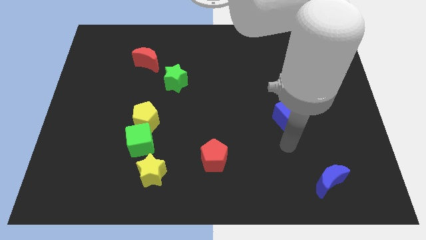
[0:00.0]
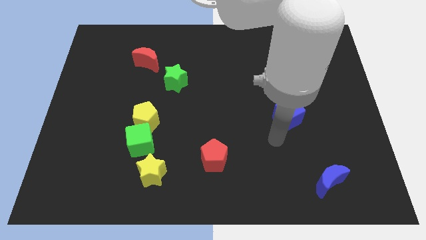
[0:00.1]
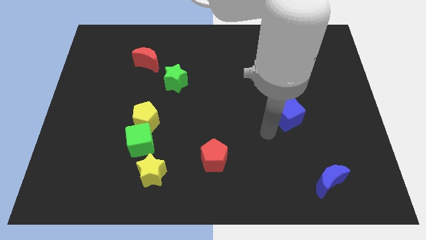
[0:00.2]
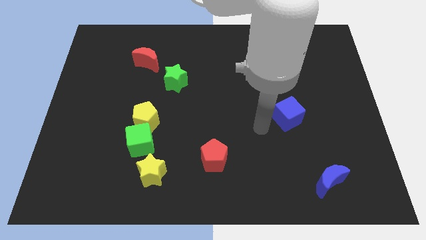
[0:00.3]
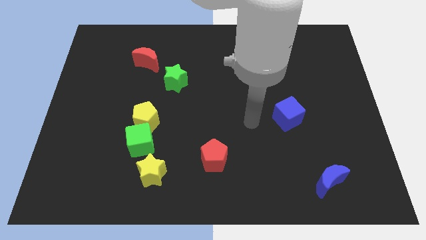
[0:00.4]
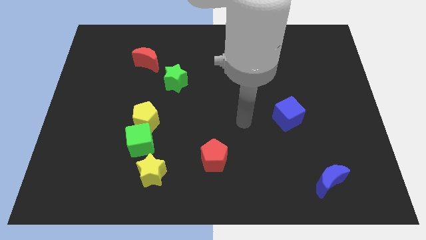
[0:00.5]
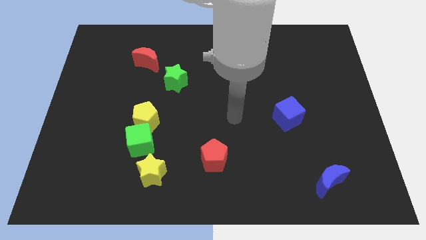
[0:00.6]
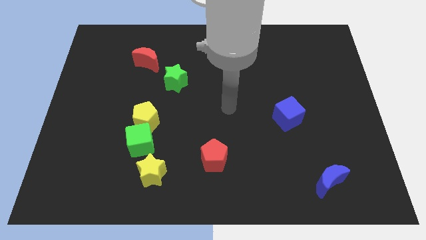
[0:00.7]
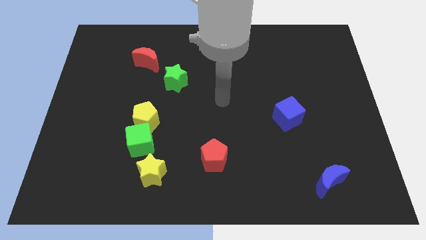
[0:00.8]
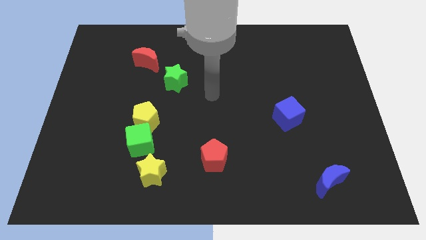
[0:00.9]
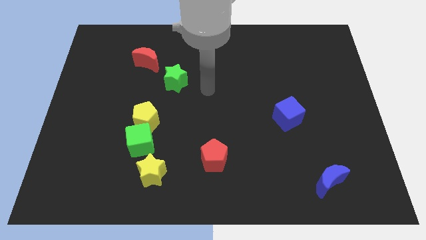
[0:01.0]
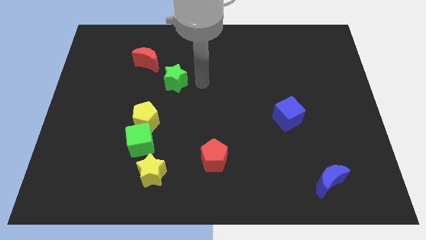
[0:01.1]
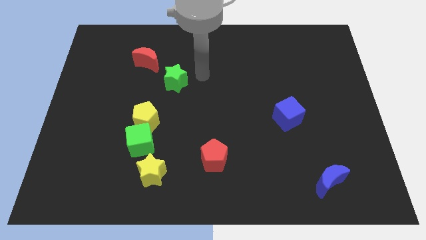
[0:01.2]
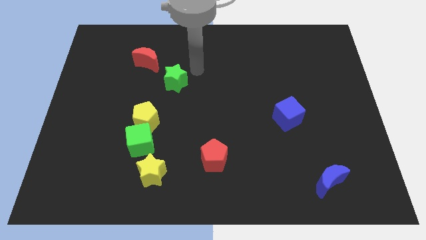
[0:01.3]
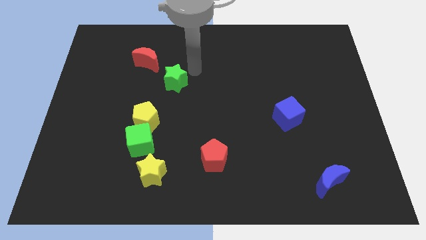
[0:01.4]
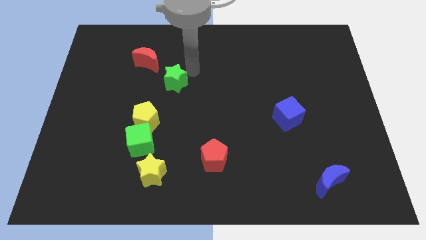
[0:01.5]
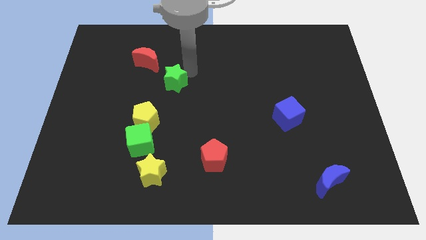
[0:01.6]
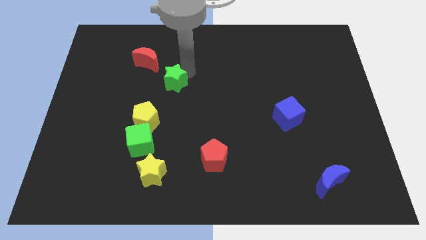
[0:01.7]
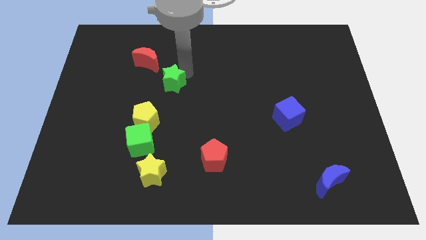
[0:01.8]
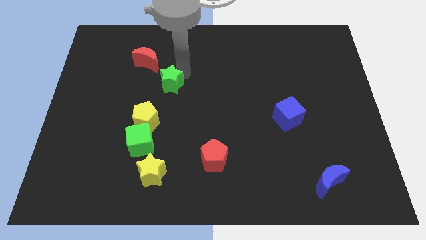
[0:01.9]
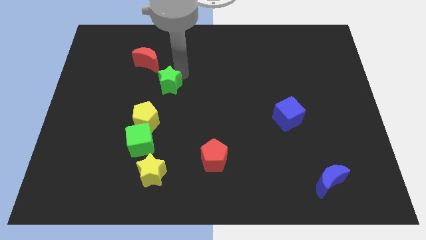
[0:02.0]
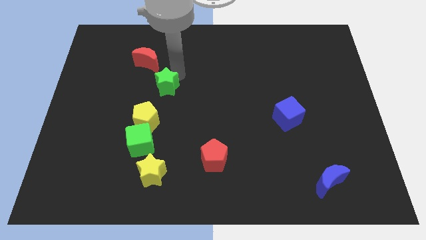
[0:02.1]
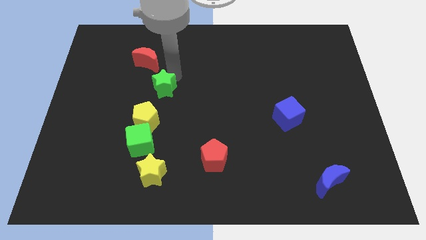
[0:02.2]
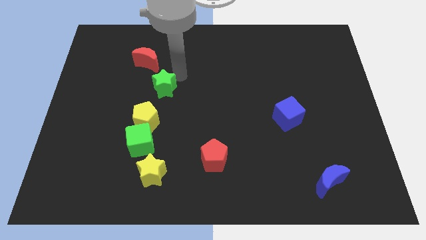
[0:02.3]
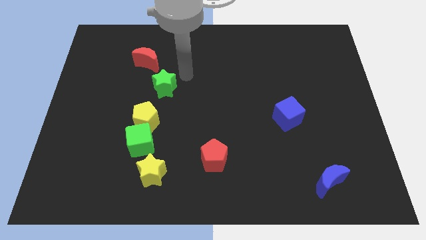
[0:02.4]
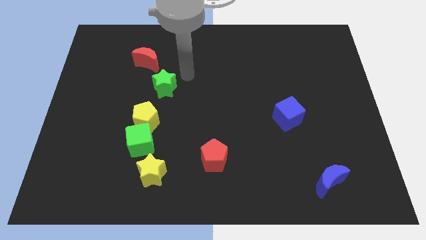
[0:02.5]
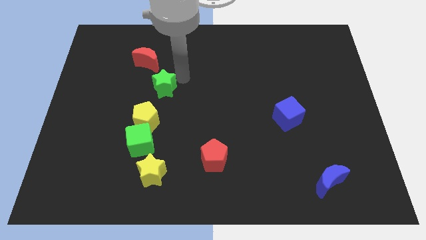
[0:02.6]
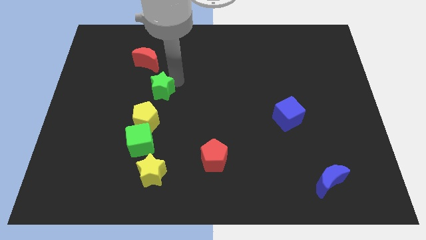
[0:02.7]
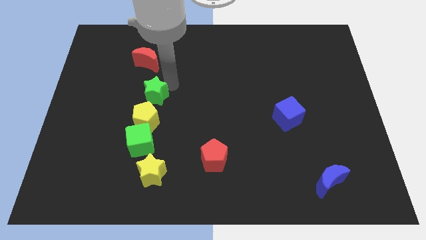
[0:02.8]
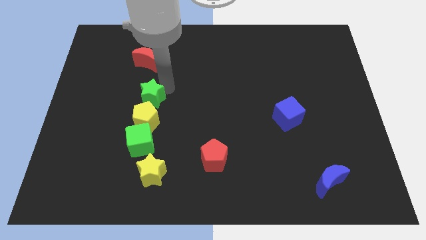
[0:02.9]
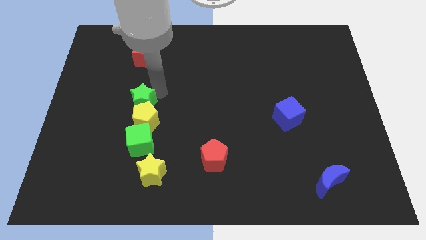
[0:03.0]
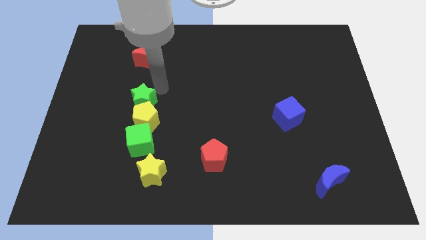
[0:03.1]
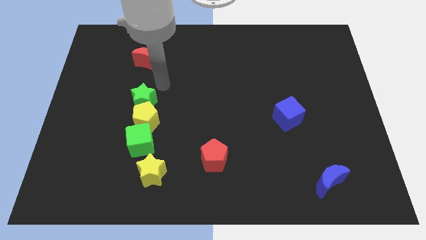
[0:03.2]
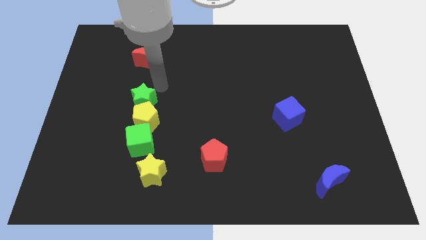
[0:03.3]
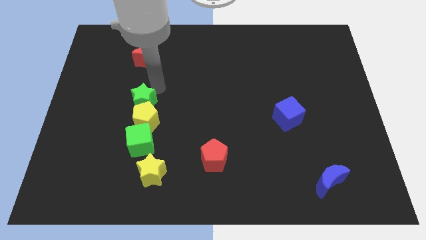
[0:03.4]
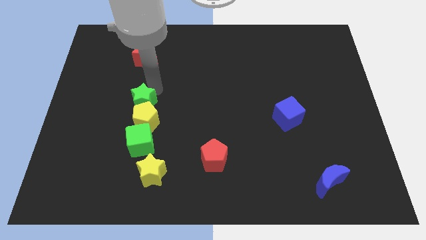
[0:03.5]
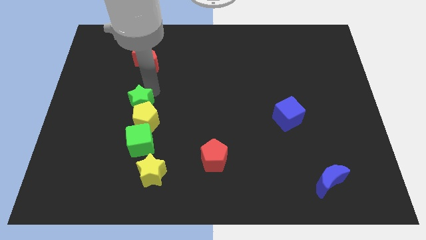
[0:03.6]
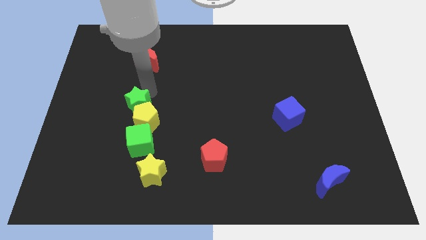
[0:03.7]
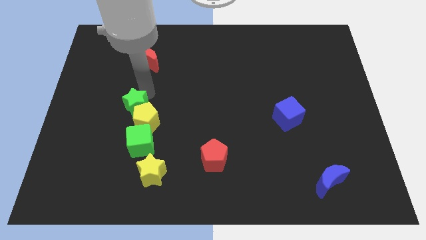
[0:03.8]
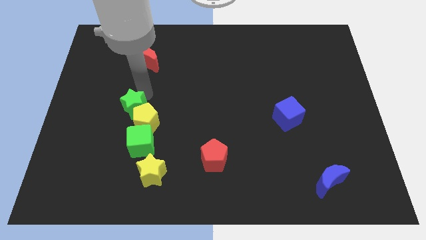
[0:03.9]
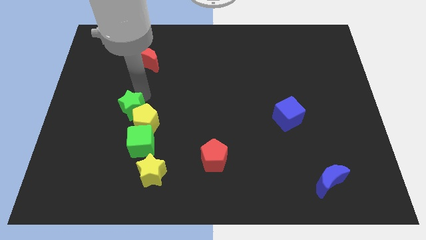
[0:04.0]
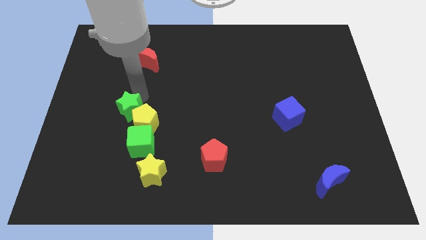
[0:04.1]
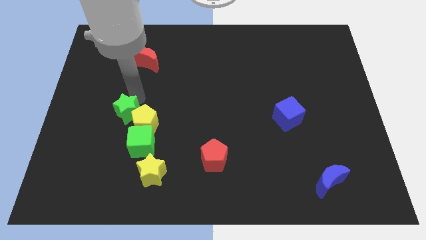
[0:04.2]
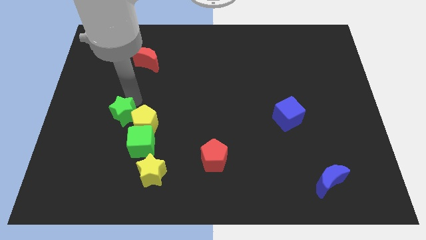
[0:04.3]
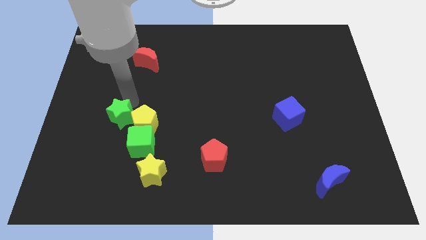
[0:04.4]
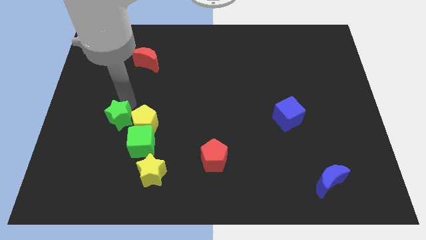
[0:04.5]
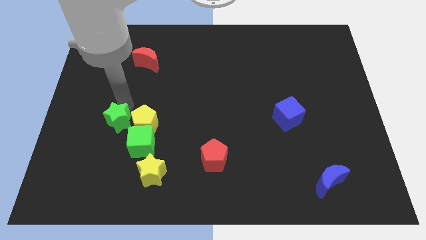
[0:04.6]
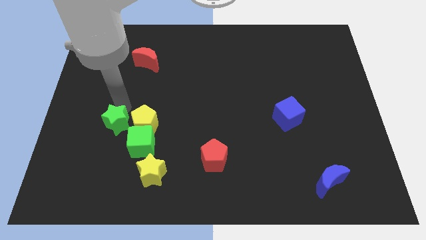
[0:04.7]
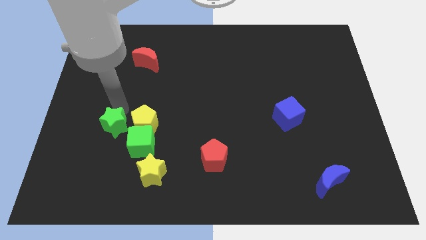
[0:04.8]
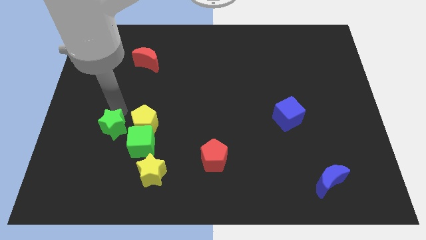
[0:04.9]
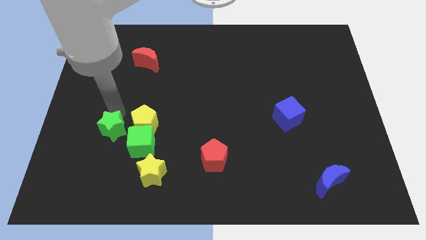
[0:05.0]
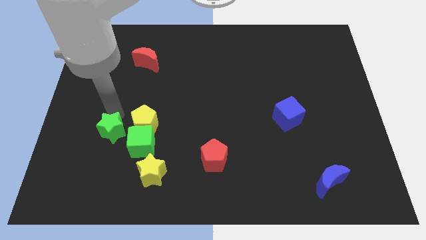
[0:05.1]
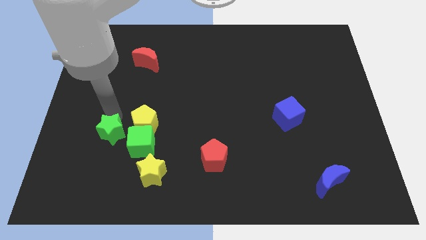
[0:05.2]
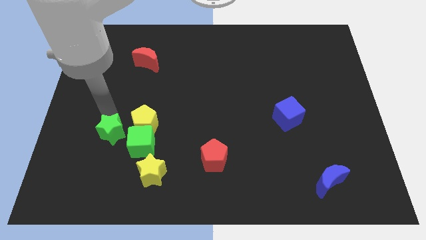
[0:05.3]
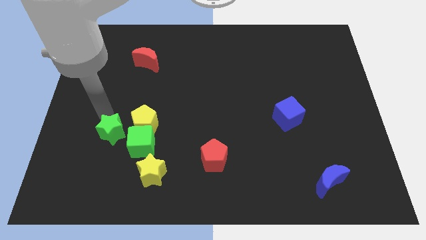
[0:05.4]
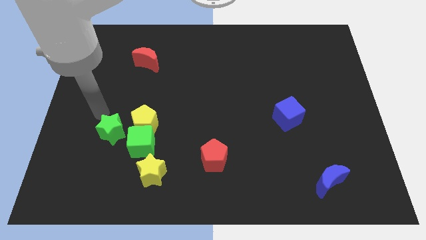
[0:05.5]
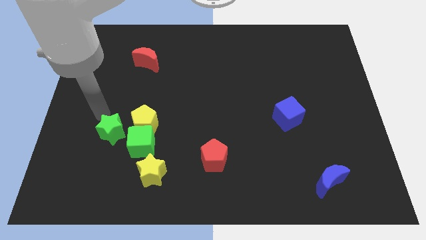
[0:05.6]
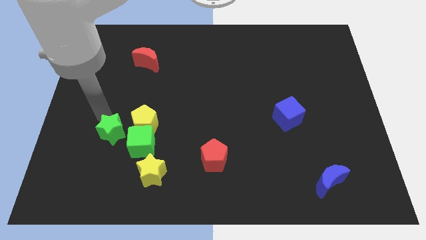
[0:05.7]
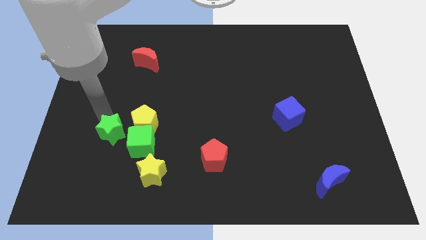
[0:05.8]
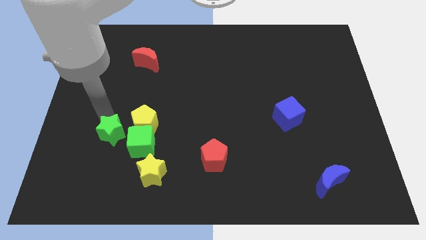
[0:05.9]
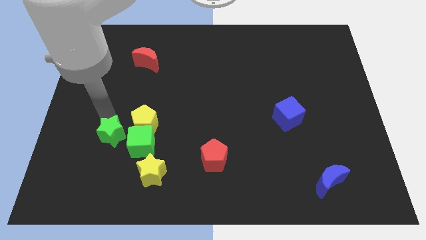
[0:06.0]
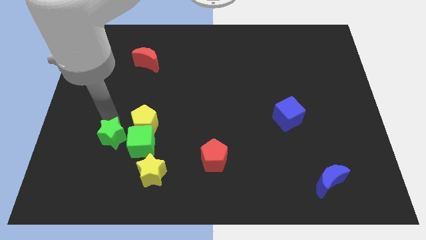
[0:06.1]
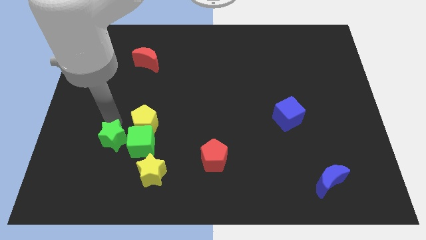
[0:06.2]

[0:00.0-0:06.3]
put the green star to the top left of the yellow star

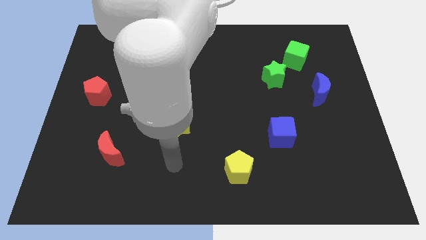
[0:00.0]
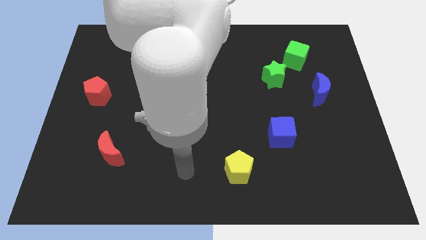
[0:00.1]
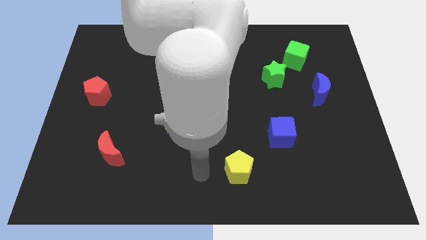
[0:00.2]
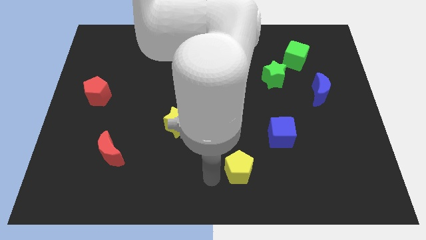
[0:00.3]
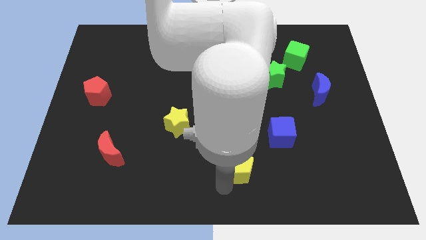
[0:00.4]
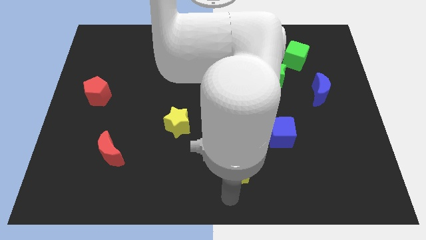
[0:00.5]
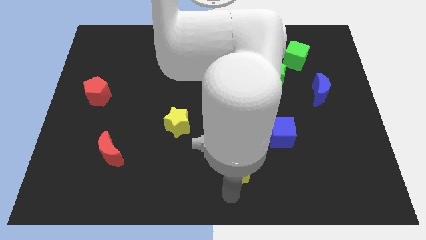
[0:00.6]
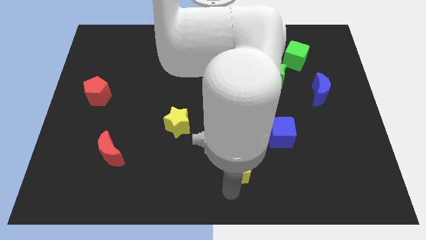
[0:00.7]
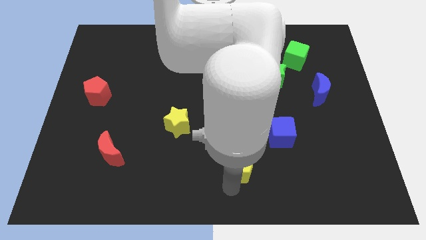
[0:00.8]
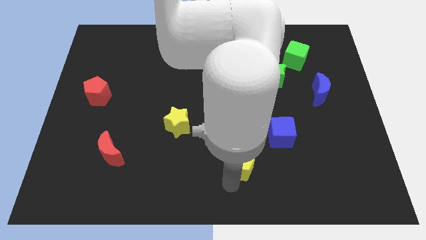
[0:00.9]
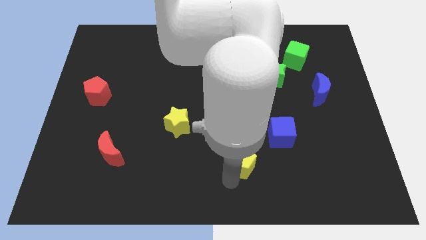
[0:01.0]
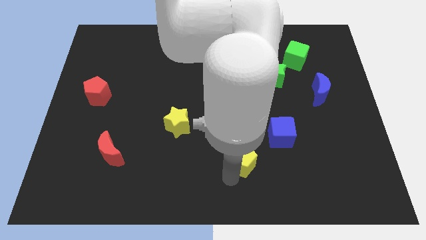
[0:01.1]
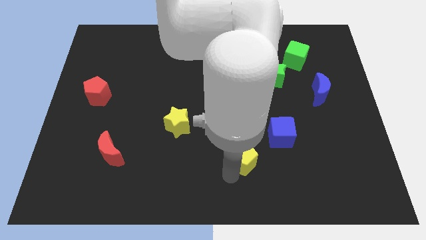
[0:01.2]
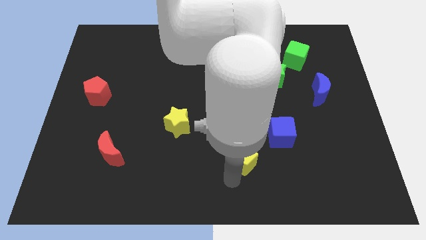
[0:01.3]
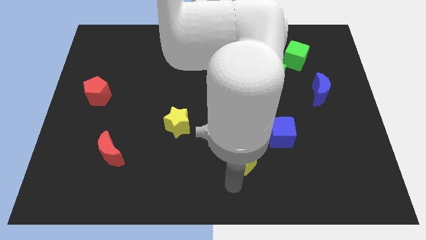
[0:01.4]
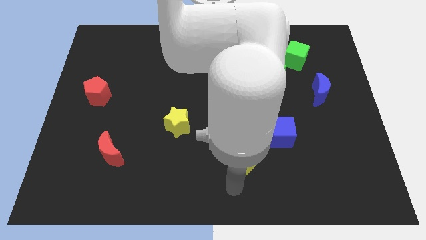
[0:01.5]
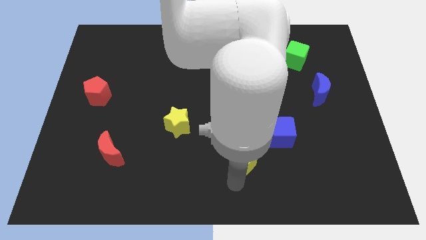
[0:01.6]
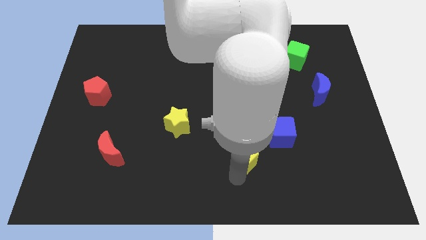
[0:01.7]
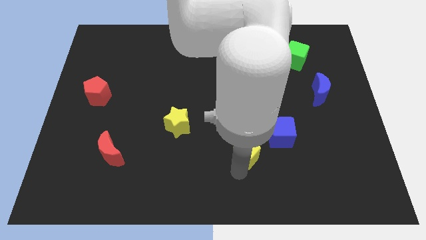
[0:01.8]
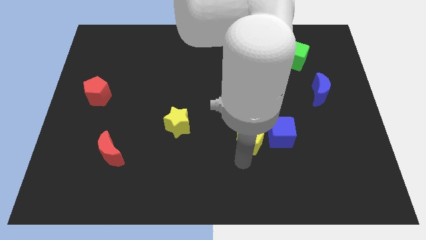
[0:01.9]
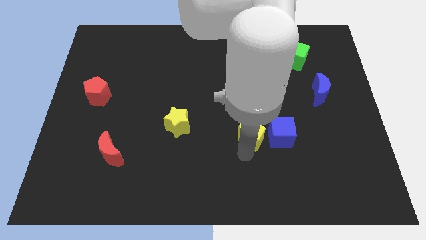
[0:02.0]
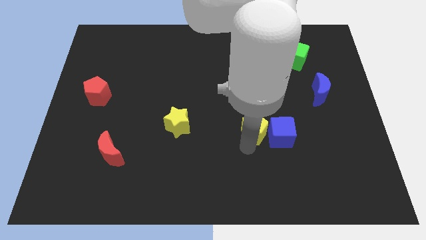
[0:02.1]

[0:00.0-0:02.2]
move the yellow pentagon to the top left of the blue cube

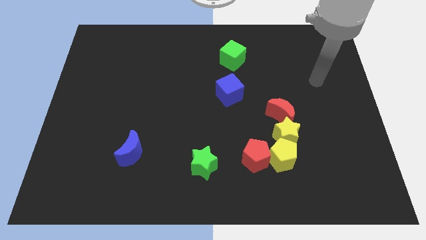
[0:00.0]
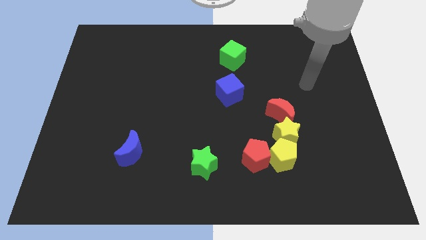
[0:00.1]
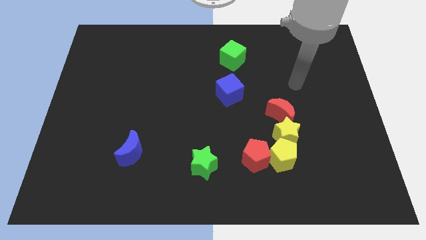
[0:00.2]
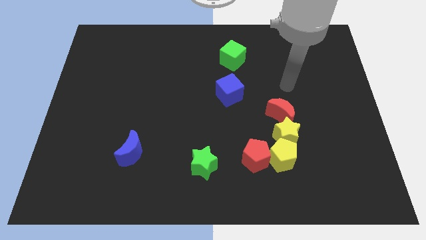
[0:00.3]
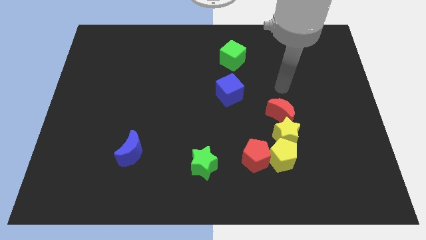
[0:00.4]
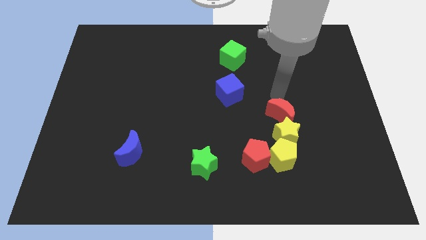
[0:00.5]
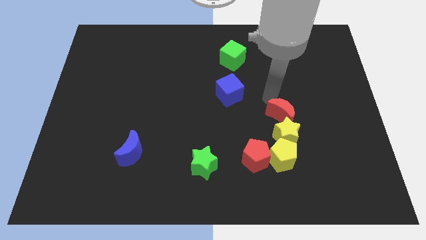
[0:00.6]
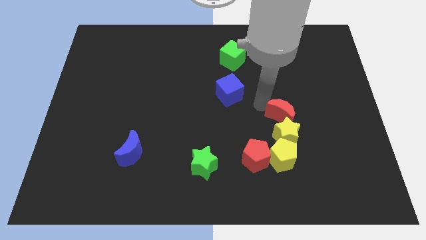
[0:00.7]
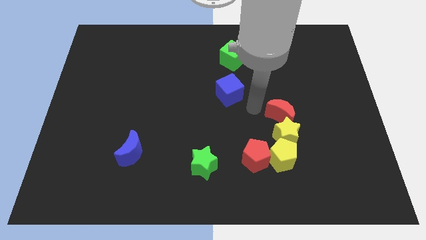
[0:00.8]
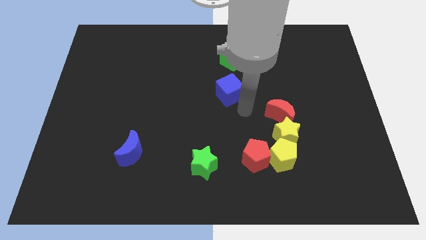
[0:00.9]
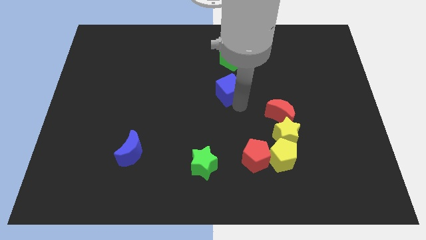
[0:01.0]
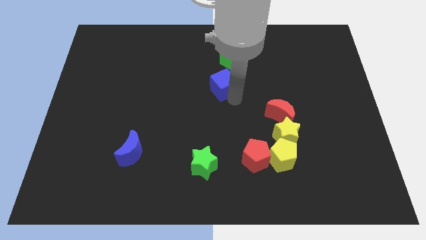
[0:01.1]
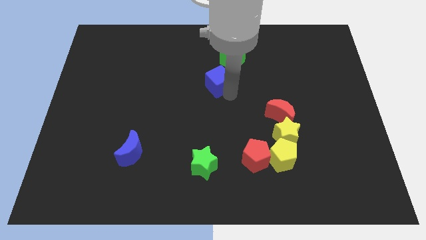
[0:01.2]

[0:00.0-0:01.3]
push the blue cube to the bottom left side of the green cube
